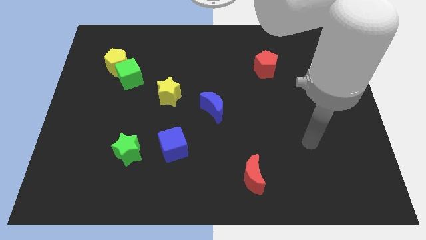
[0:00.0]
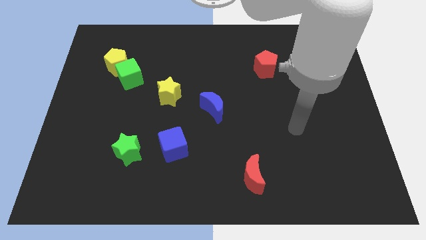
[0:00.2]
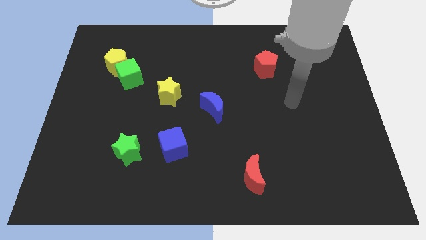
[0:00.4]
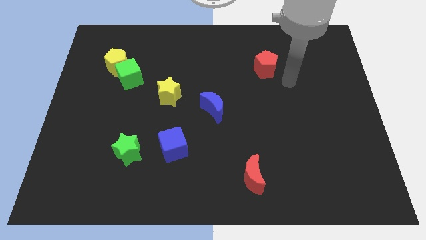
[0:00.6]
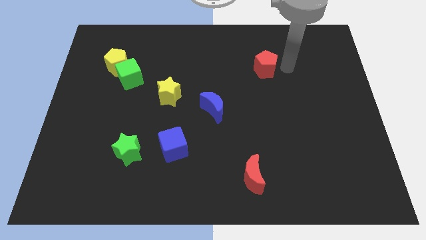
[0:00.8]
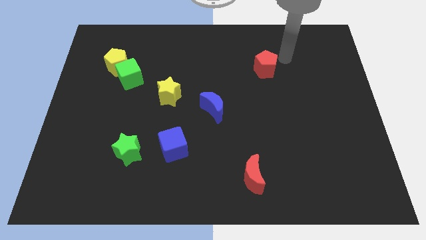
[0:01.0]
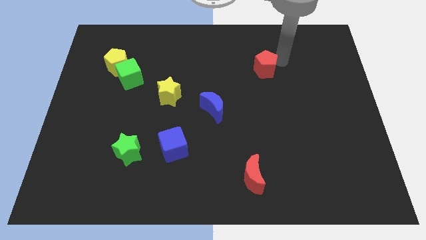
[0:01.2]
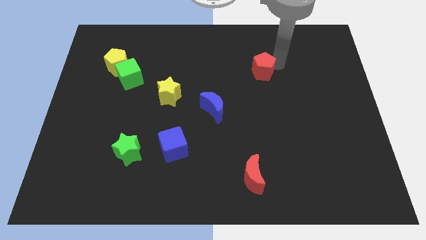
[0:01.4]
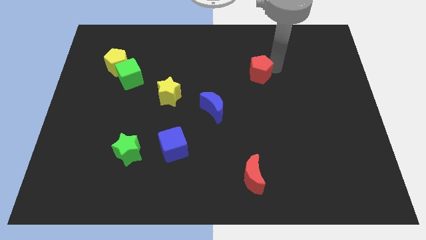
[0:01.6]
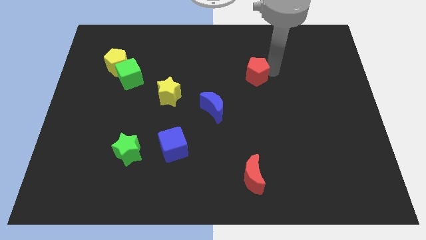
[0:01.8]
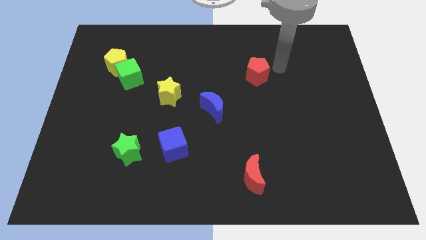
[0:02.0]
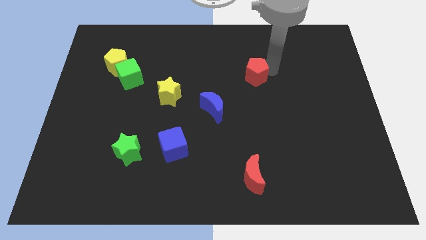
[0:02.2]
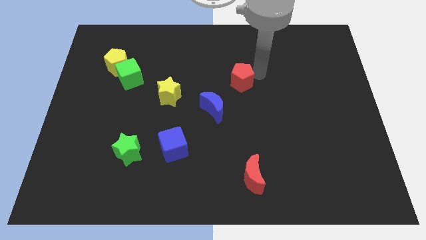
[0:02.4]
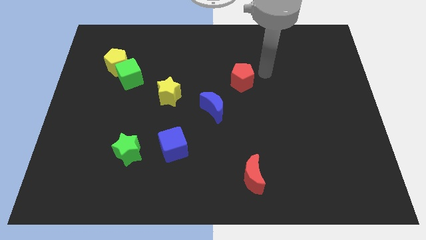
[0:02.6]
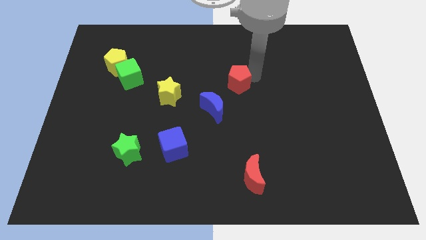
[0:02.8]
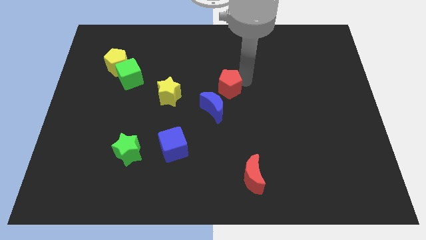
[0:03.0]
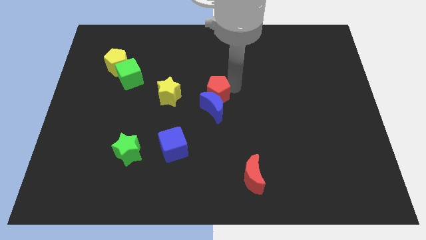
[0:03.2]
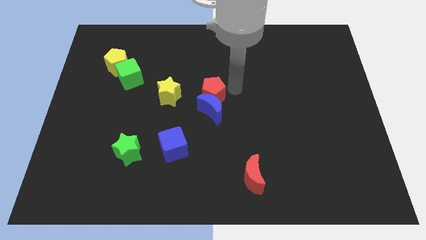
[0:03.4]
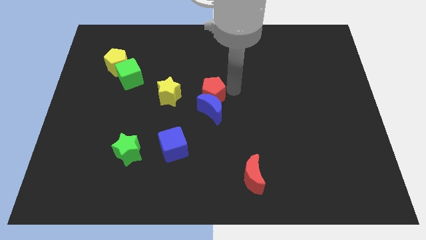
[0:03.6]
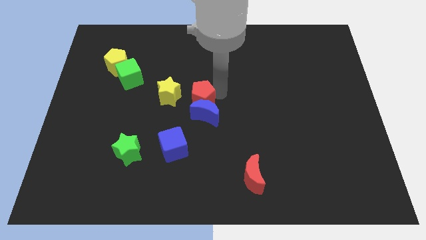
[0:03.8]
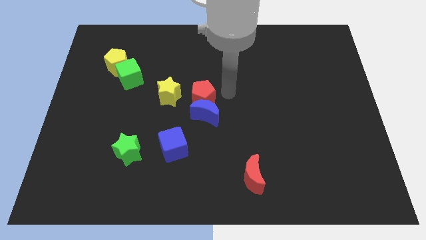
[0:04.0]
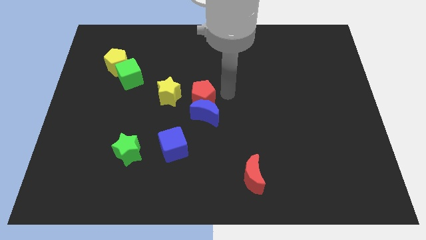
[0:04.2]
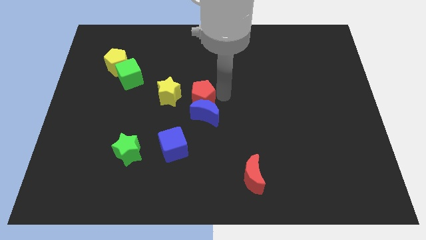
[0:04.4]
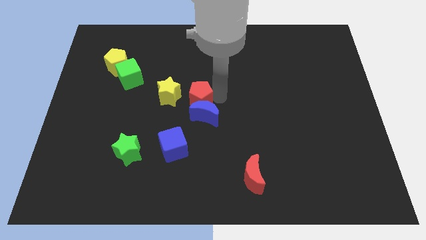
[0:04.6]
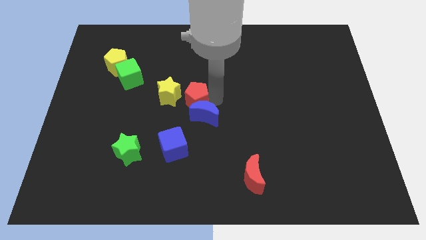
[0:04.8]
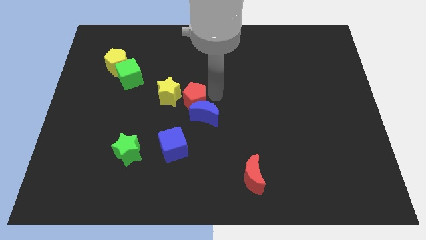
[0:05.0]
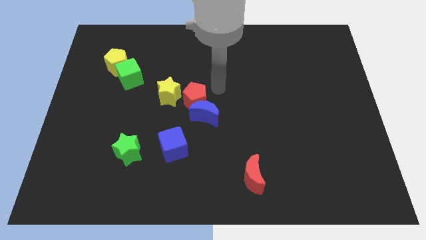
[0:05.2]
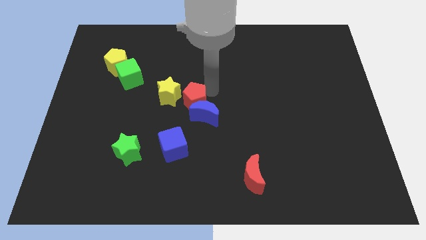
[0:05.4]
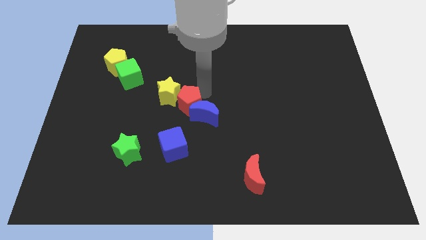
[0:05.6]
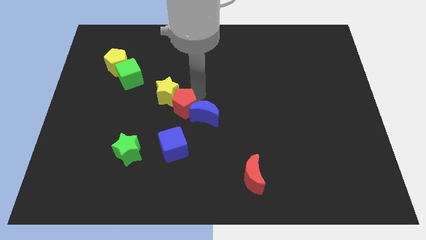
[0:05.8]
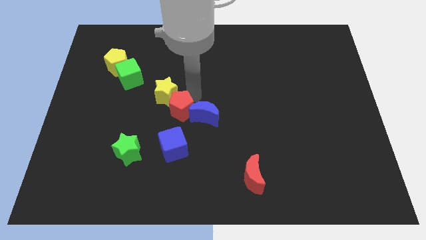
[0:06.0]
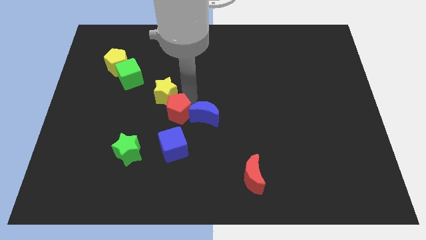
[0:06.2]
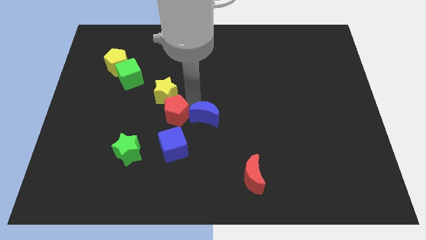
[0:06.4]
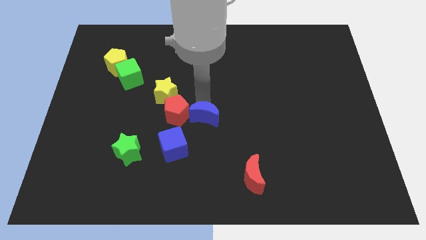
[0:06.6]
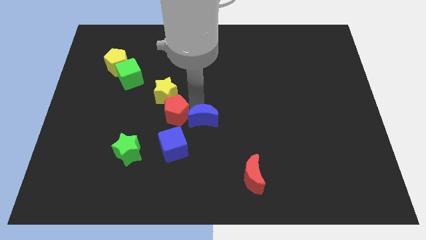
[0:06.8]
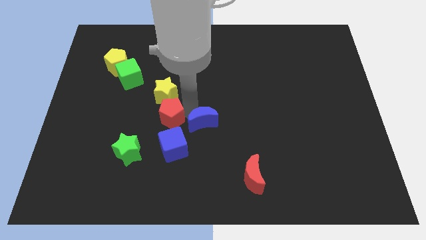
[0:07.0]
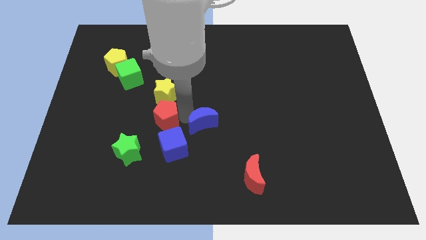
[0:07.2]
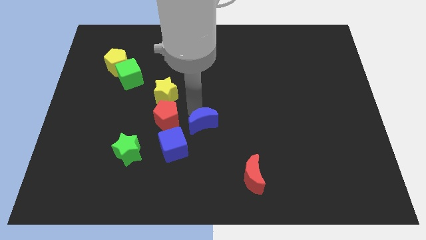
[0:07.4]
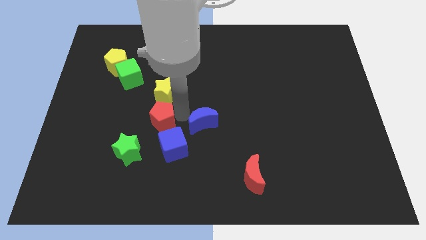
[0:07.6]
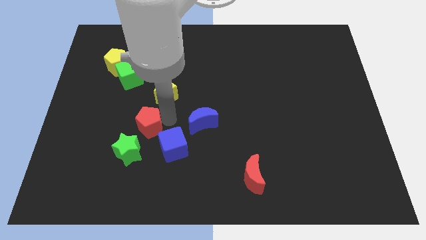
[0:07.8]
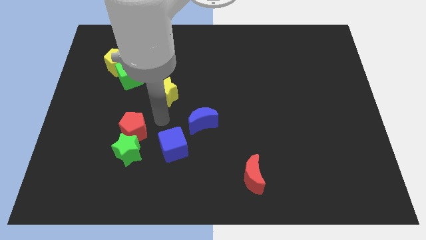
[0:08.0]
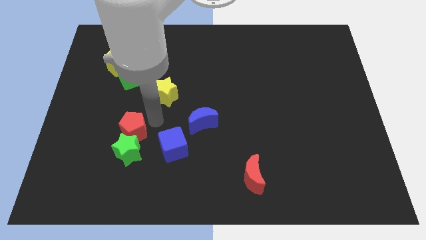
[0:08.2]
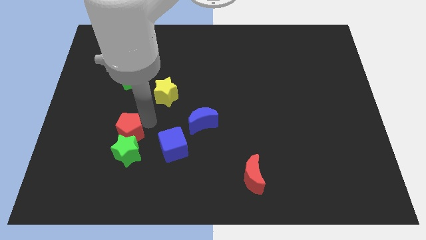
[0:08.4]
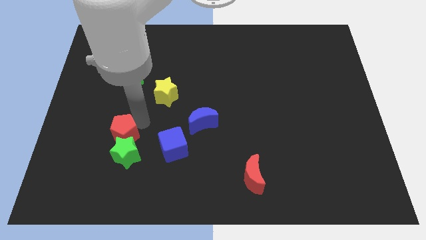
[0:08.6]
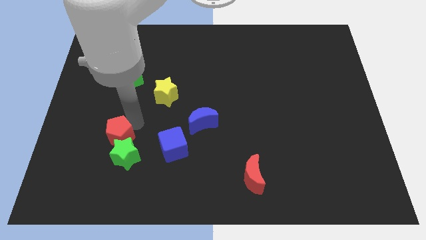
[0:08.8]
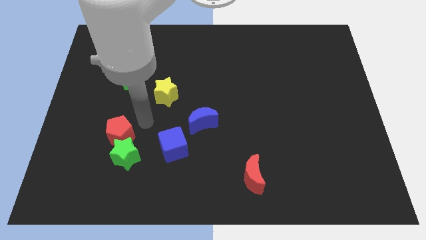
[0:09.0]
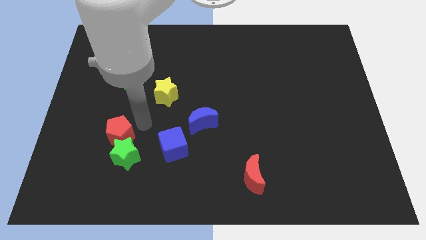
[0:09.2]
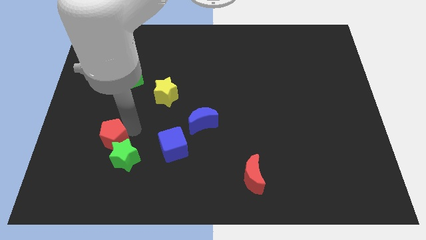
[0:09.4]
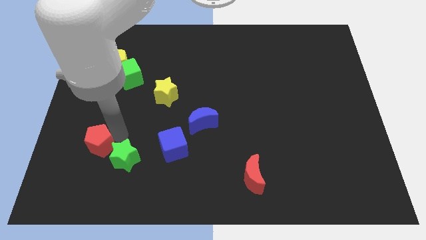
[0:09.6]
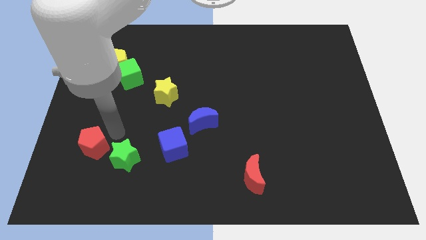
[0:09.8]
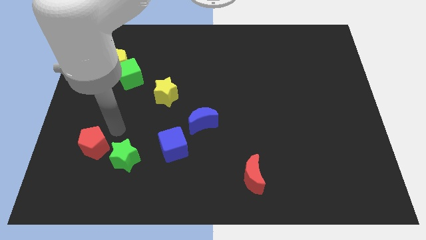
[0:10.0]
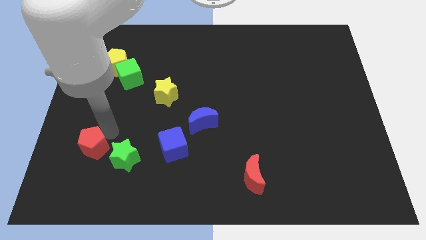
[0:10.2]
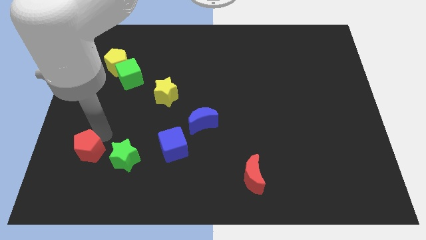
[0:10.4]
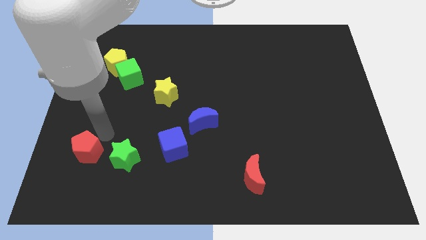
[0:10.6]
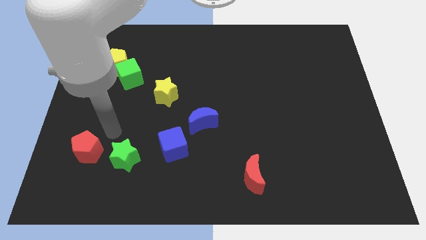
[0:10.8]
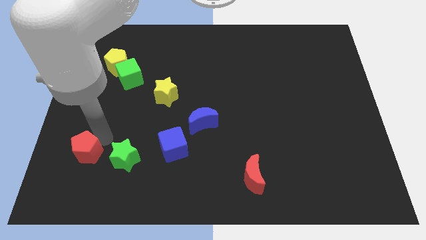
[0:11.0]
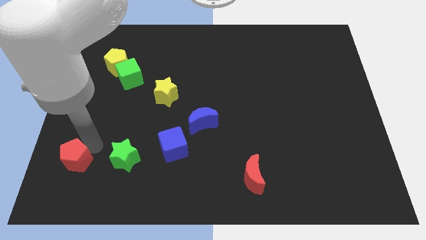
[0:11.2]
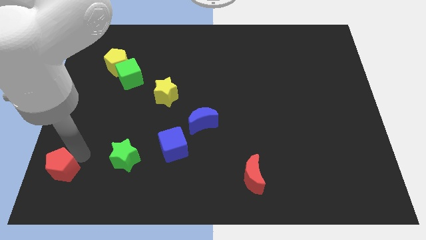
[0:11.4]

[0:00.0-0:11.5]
slide the red pentagon to the bottom left of the board

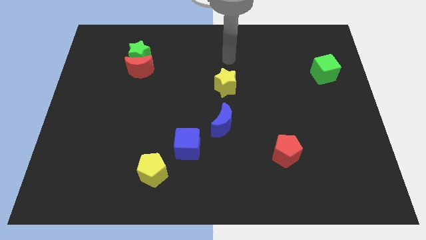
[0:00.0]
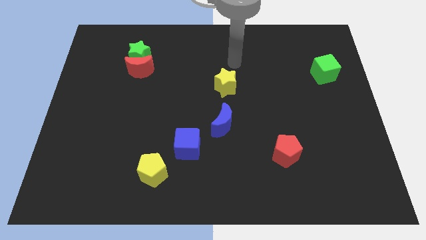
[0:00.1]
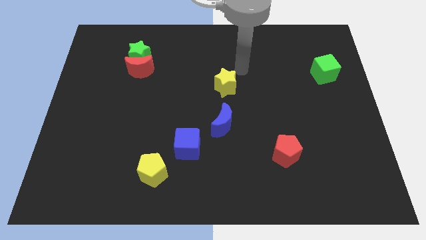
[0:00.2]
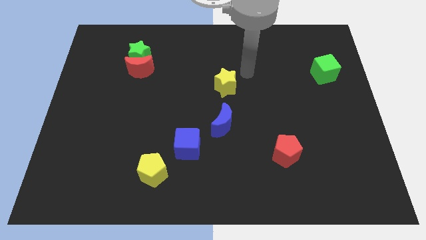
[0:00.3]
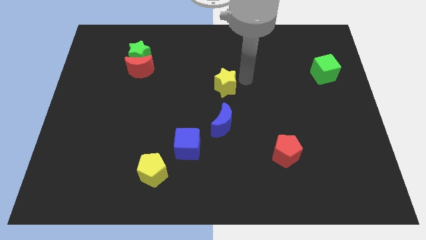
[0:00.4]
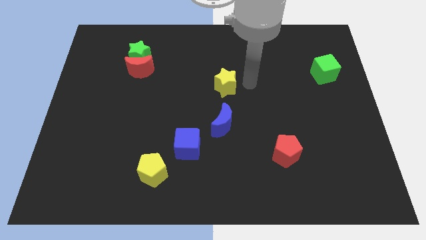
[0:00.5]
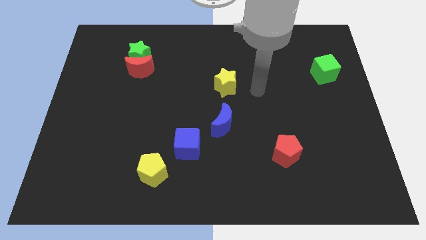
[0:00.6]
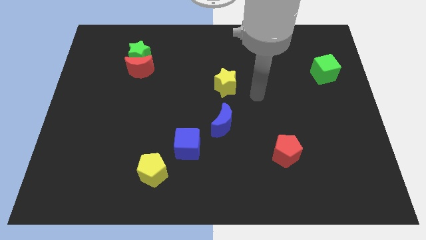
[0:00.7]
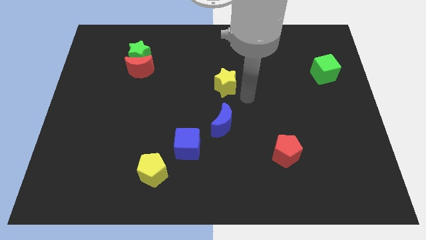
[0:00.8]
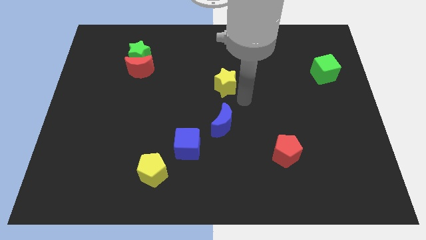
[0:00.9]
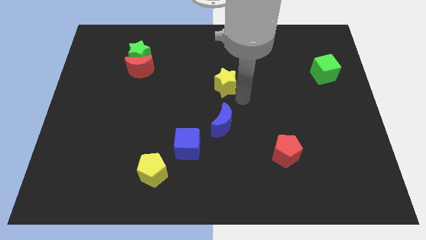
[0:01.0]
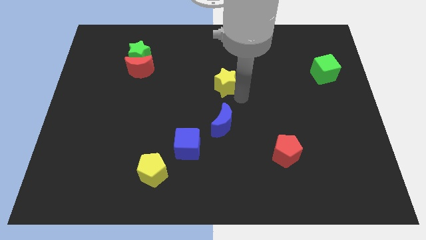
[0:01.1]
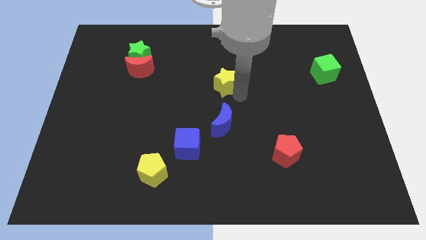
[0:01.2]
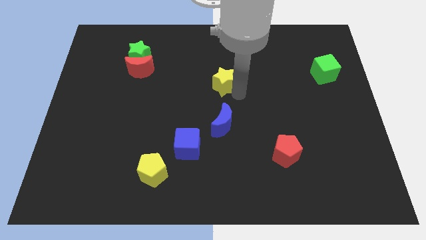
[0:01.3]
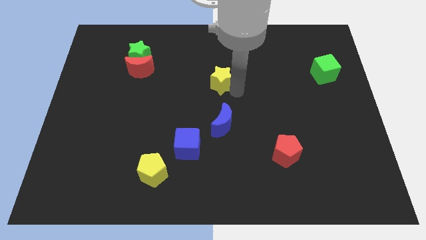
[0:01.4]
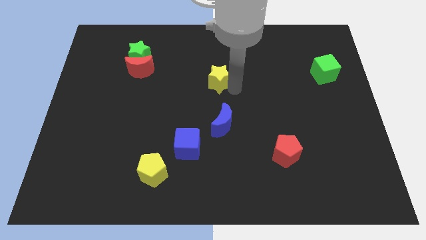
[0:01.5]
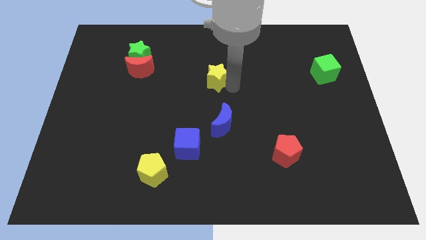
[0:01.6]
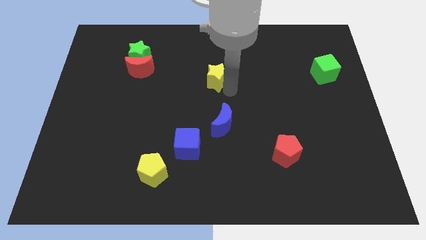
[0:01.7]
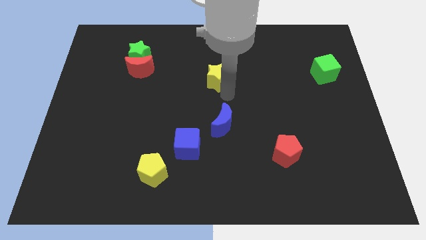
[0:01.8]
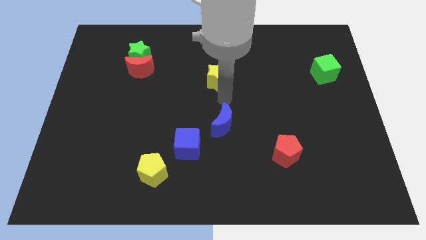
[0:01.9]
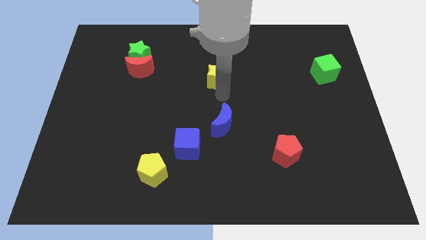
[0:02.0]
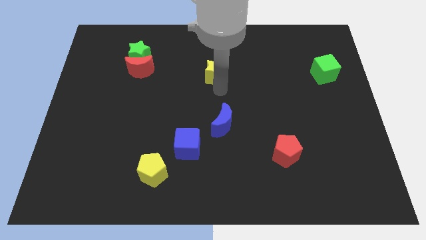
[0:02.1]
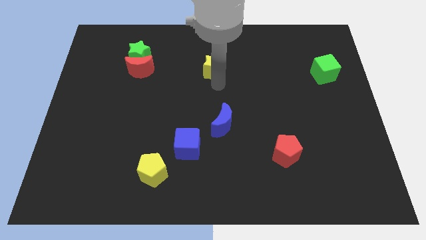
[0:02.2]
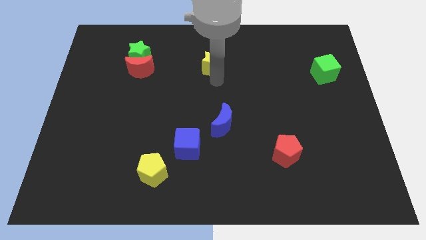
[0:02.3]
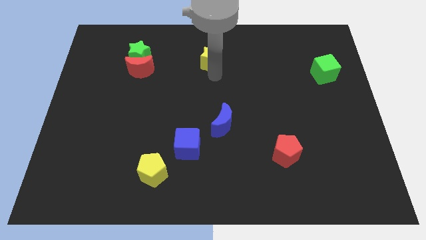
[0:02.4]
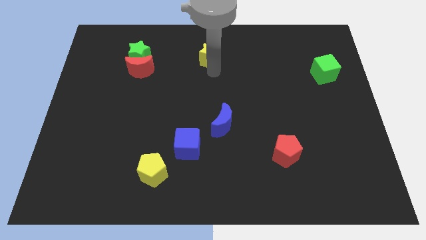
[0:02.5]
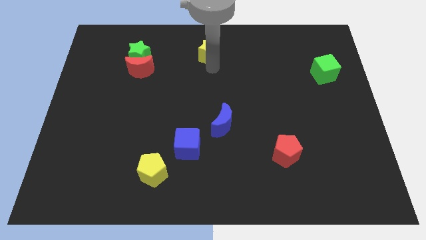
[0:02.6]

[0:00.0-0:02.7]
push the yellow star to the top side
